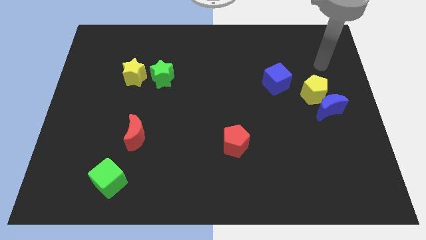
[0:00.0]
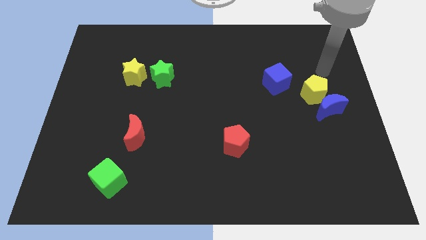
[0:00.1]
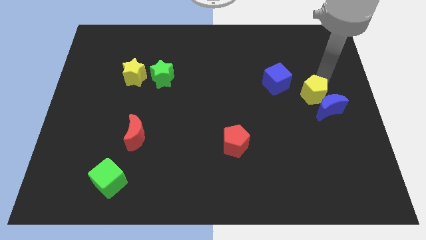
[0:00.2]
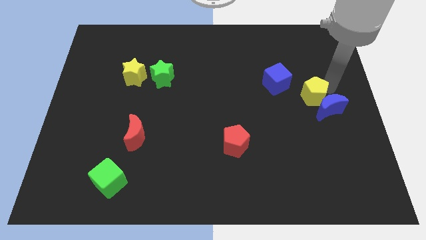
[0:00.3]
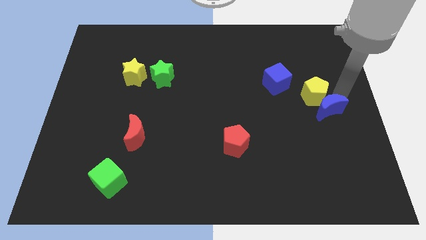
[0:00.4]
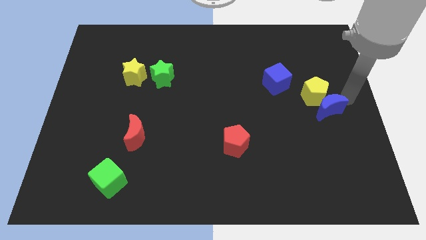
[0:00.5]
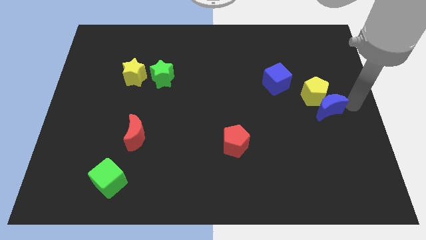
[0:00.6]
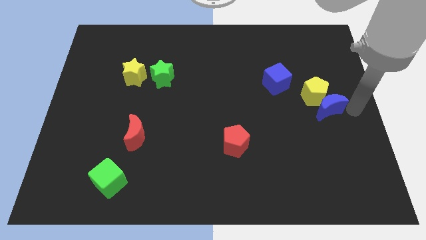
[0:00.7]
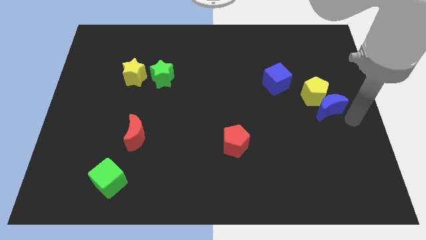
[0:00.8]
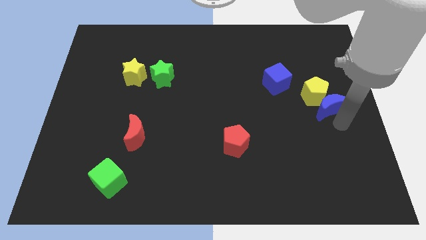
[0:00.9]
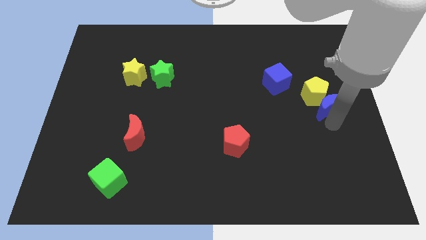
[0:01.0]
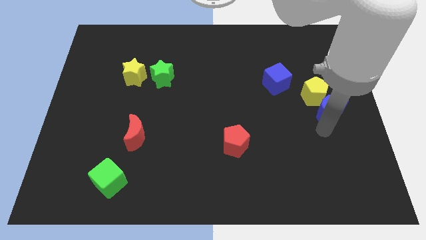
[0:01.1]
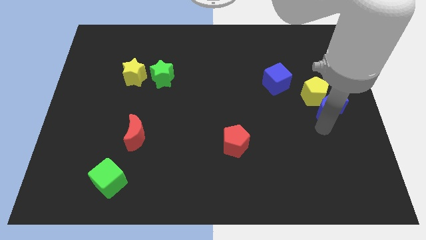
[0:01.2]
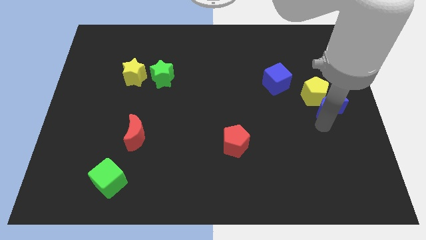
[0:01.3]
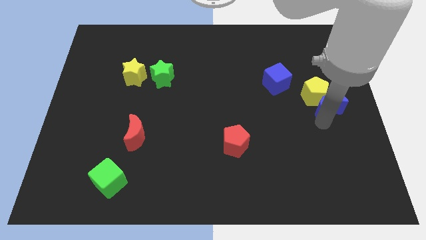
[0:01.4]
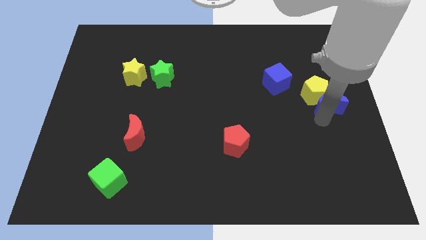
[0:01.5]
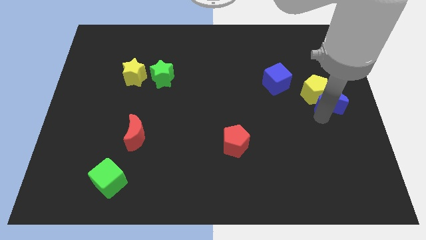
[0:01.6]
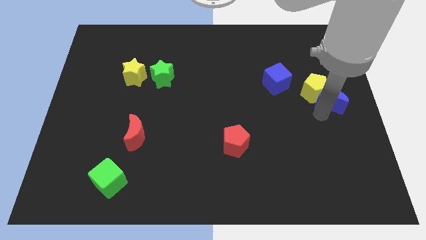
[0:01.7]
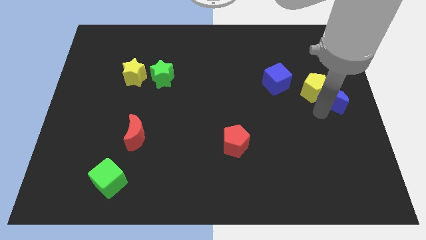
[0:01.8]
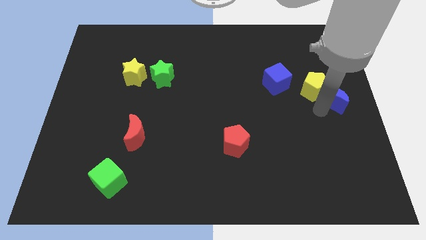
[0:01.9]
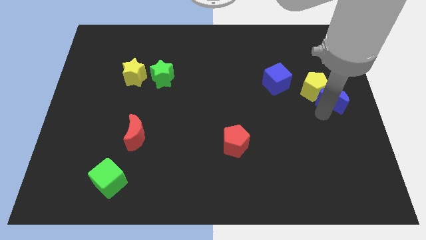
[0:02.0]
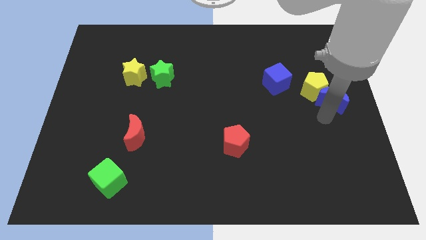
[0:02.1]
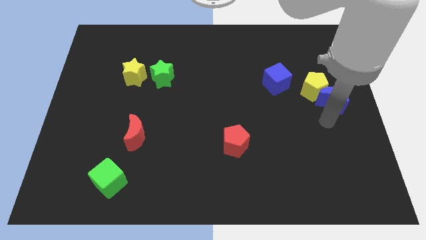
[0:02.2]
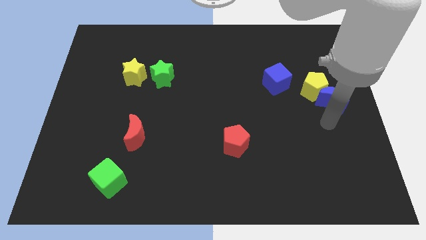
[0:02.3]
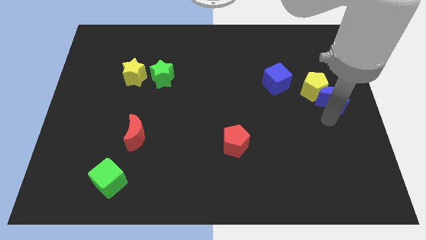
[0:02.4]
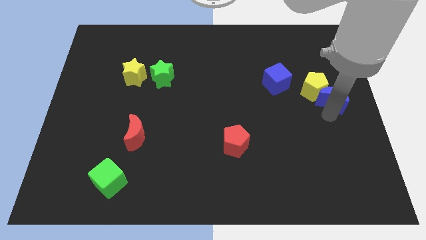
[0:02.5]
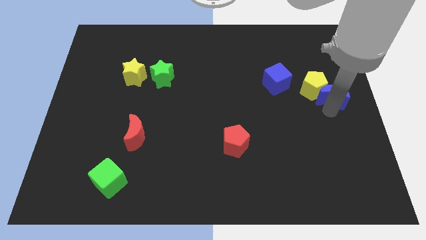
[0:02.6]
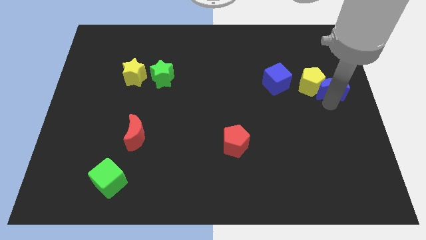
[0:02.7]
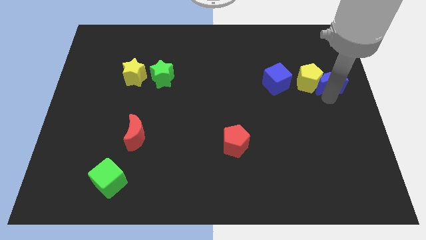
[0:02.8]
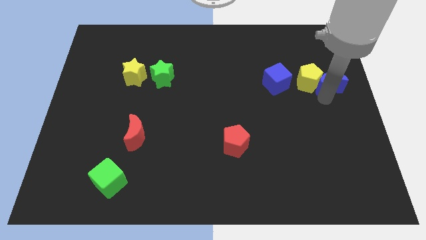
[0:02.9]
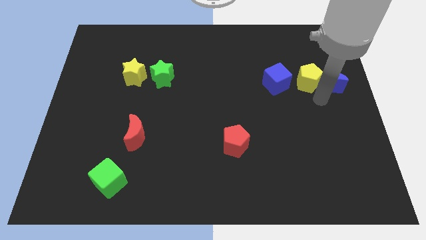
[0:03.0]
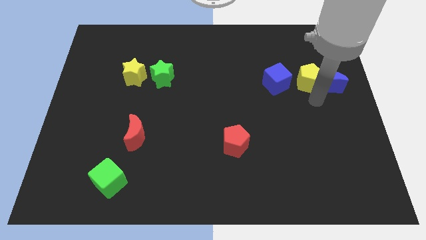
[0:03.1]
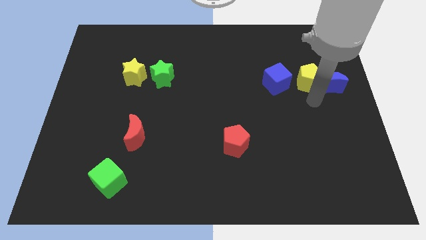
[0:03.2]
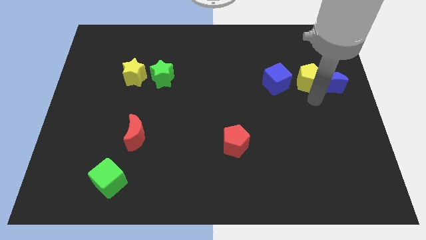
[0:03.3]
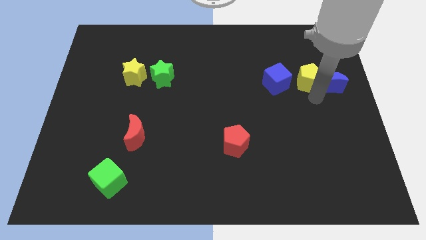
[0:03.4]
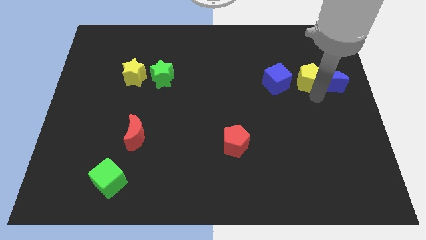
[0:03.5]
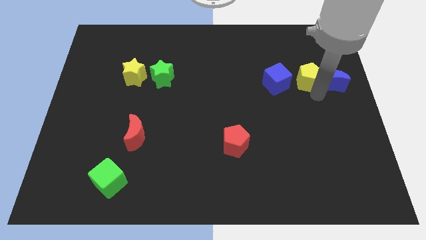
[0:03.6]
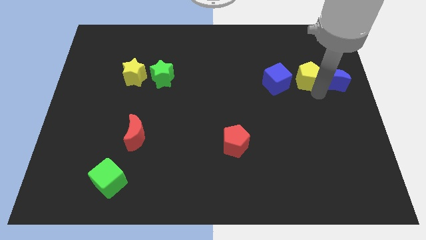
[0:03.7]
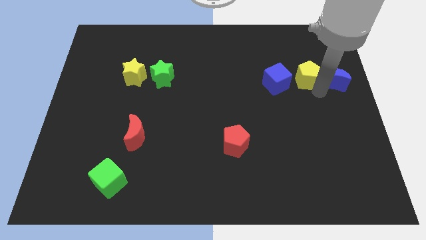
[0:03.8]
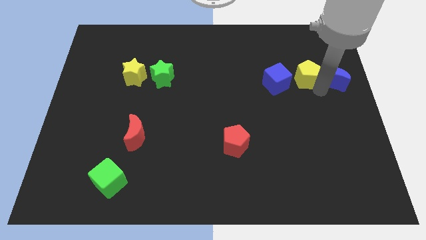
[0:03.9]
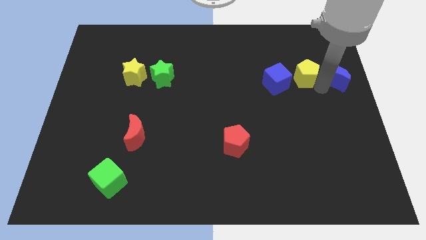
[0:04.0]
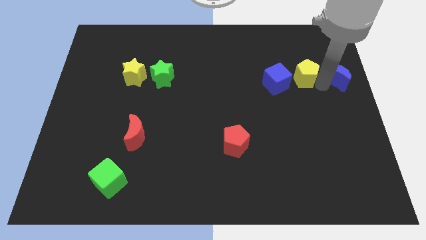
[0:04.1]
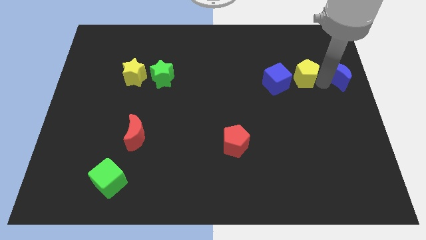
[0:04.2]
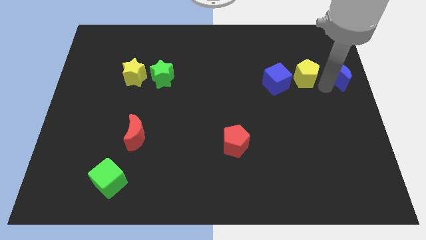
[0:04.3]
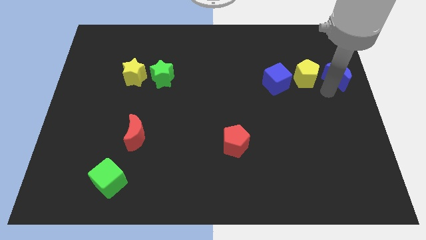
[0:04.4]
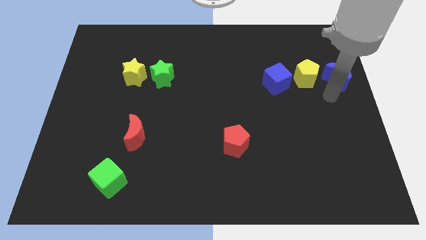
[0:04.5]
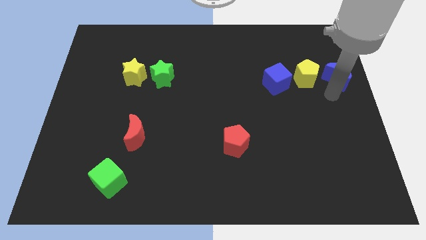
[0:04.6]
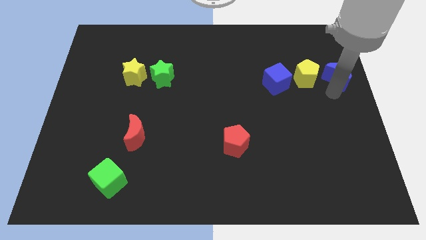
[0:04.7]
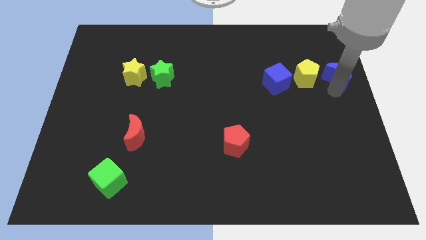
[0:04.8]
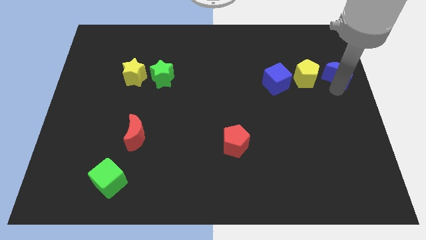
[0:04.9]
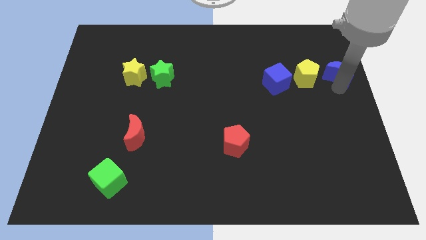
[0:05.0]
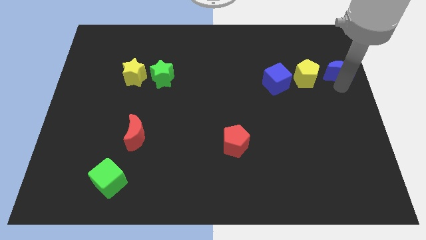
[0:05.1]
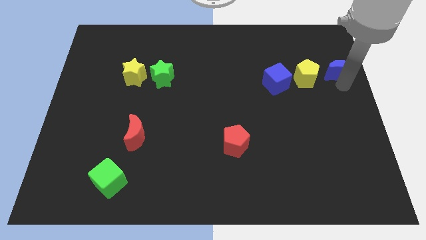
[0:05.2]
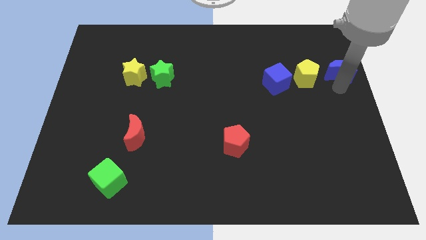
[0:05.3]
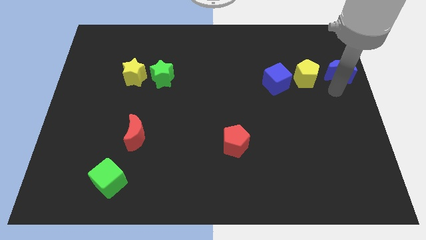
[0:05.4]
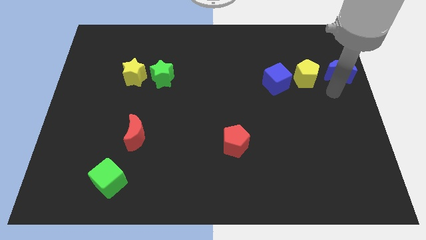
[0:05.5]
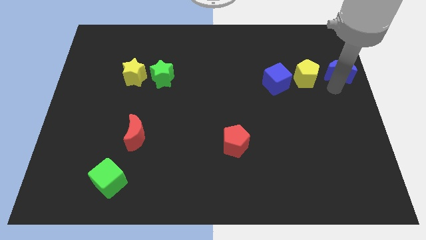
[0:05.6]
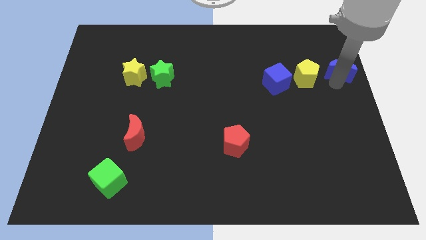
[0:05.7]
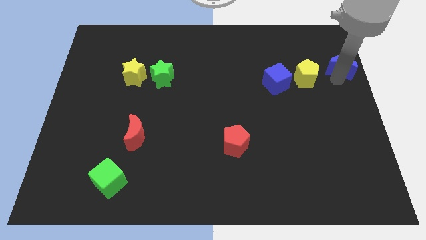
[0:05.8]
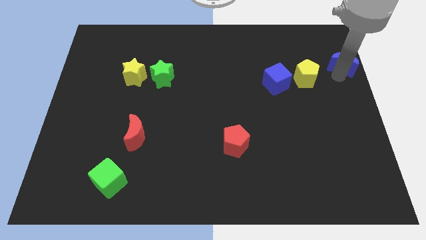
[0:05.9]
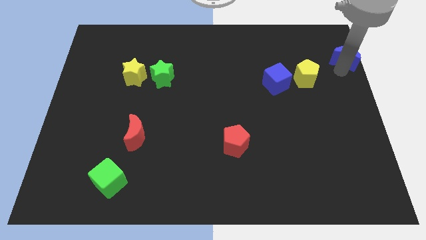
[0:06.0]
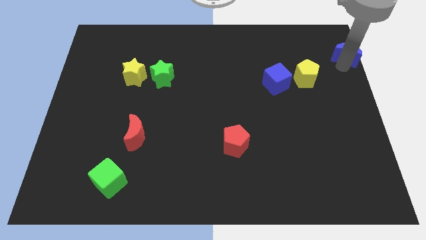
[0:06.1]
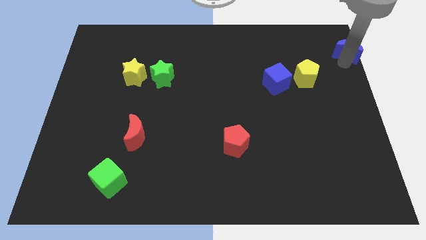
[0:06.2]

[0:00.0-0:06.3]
slide the blue moon to the top right of the board
